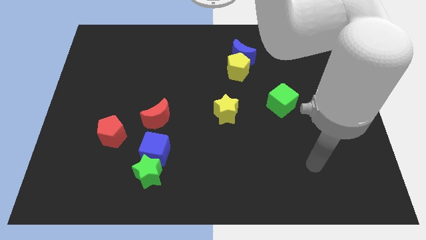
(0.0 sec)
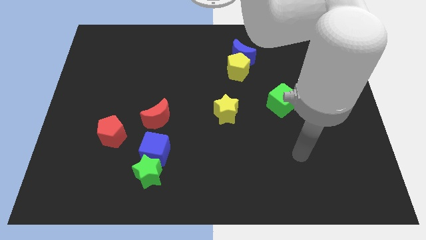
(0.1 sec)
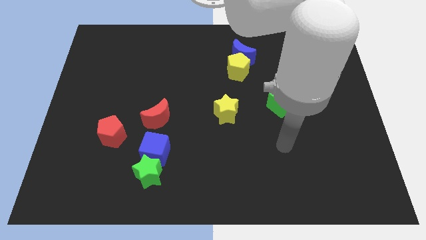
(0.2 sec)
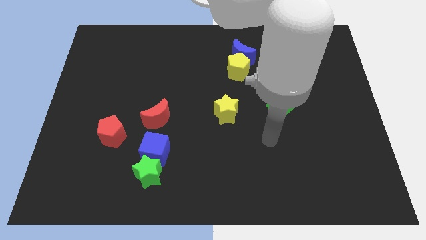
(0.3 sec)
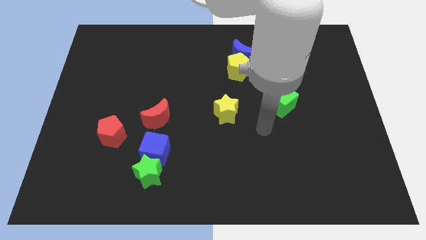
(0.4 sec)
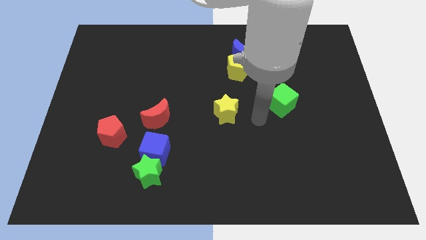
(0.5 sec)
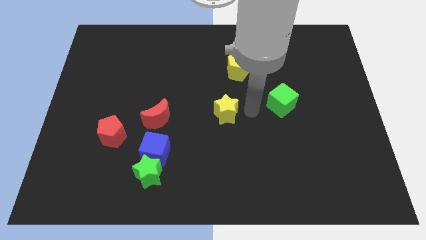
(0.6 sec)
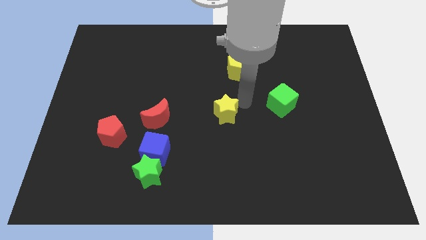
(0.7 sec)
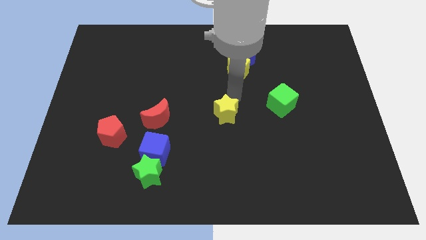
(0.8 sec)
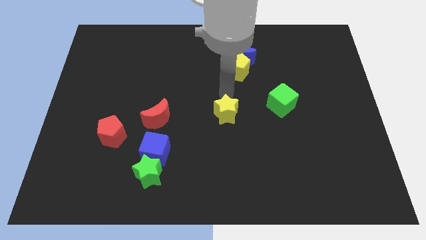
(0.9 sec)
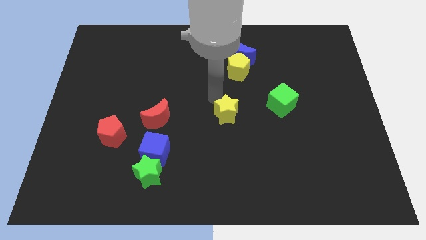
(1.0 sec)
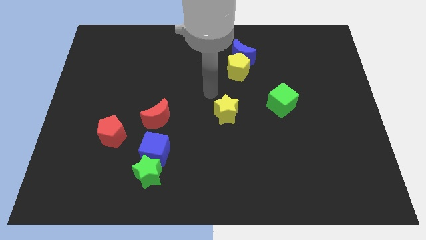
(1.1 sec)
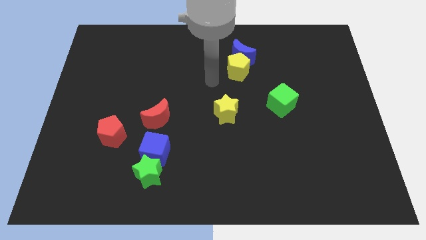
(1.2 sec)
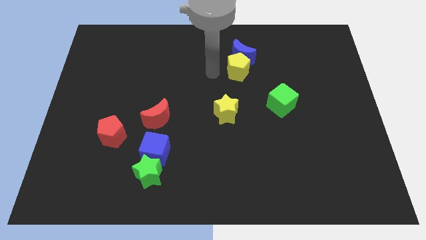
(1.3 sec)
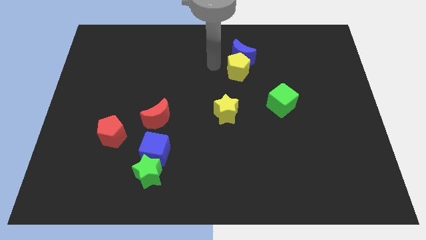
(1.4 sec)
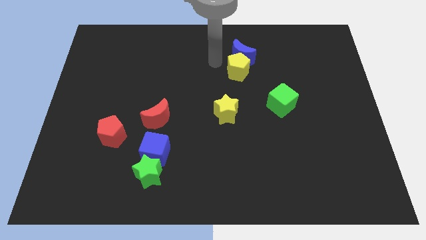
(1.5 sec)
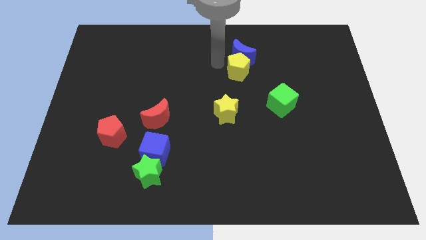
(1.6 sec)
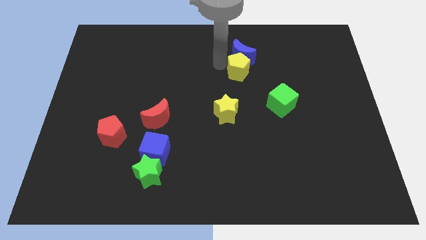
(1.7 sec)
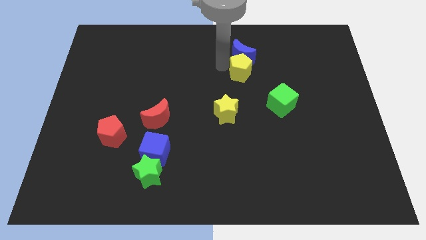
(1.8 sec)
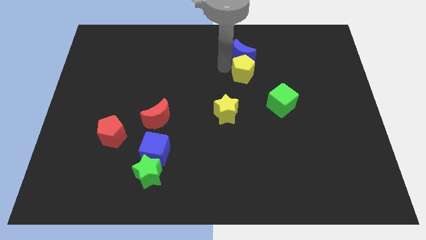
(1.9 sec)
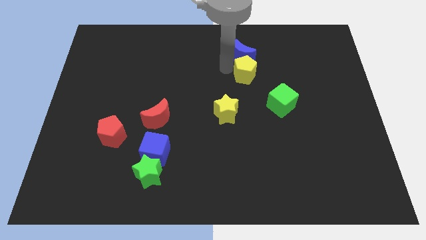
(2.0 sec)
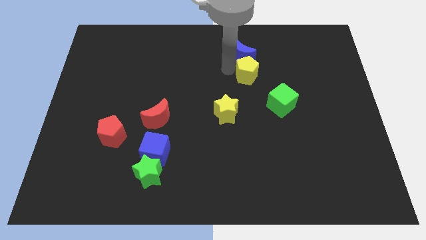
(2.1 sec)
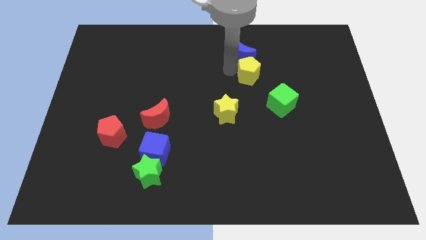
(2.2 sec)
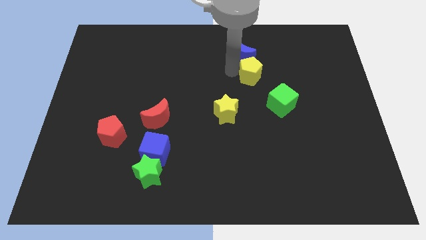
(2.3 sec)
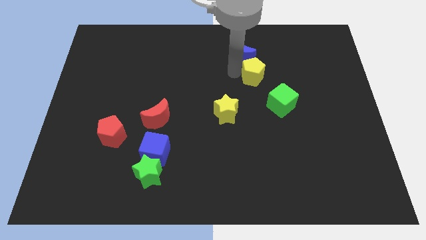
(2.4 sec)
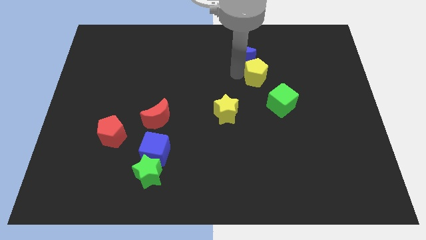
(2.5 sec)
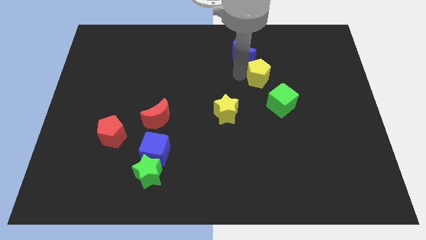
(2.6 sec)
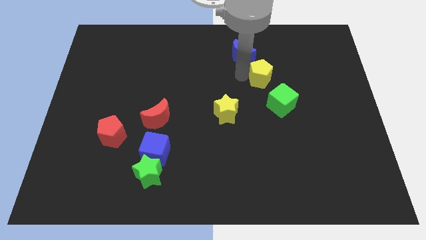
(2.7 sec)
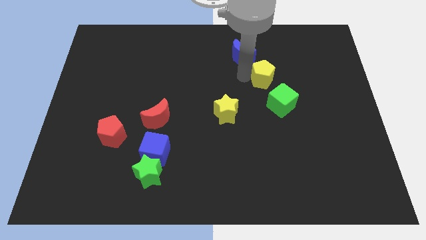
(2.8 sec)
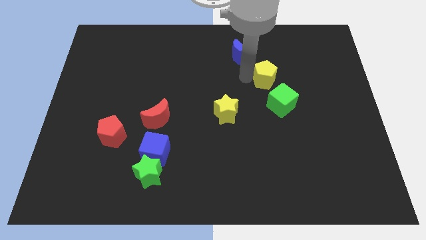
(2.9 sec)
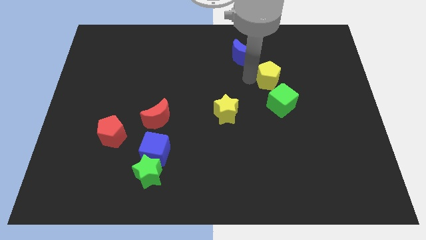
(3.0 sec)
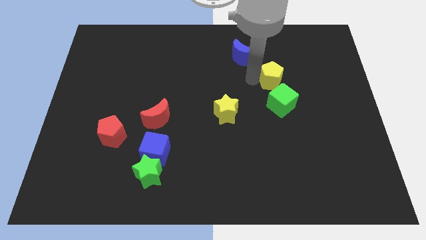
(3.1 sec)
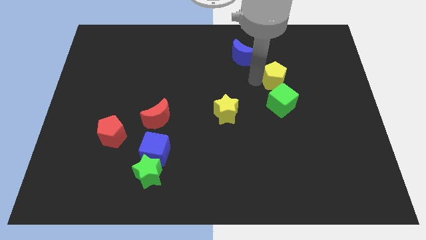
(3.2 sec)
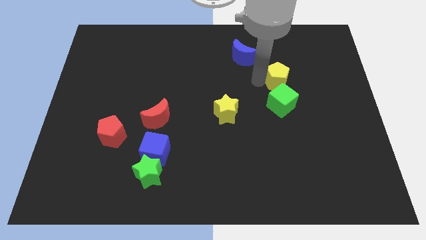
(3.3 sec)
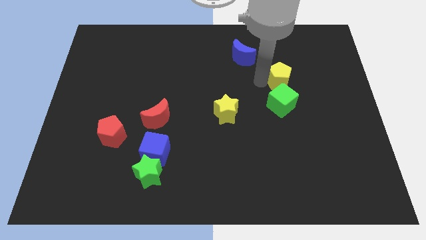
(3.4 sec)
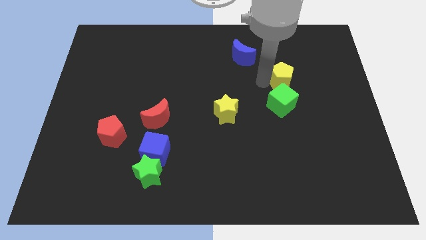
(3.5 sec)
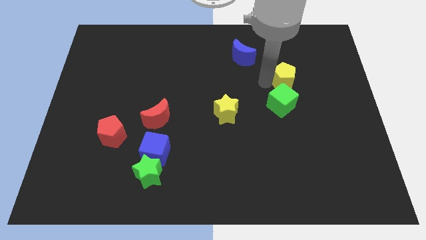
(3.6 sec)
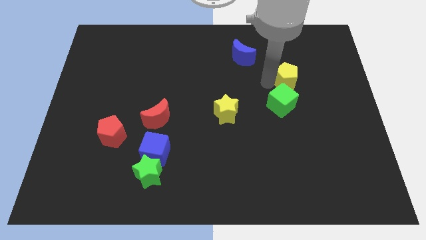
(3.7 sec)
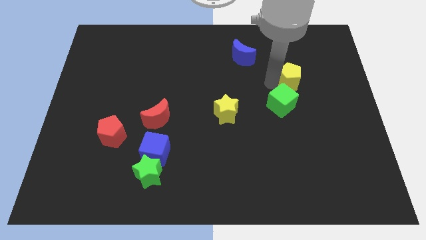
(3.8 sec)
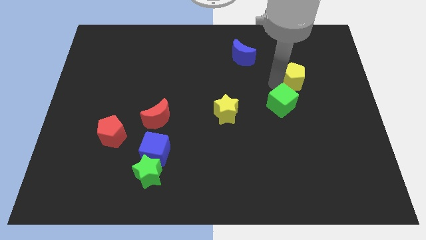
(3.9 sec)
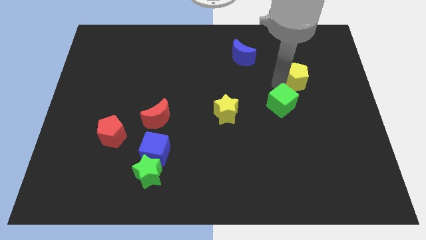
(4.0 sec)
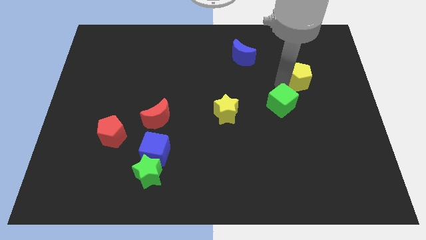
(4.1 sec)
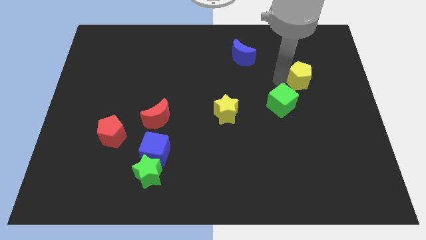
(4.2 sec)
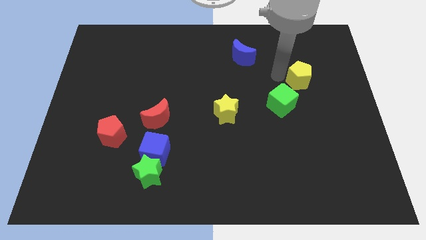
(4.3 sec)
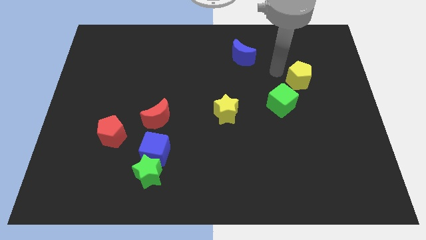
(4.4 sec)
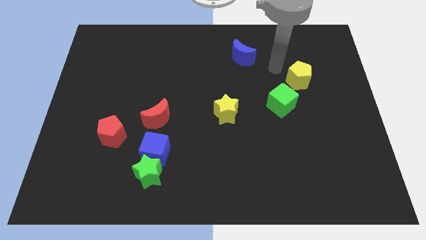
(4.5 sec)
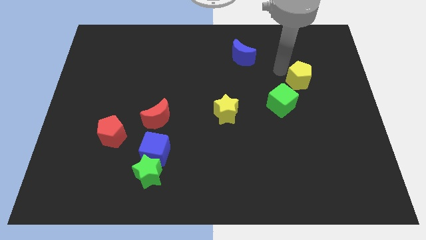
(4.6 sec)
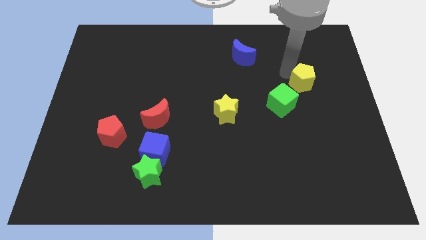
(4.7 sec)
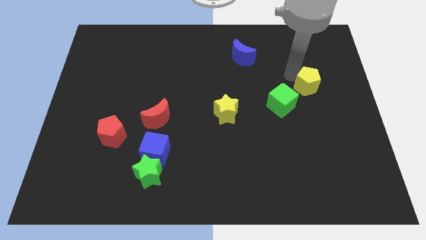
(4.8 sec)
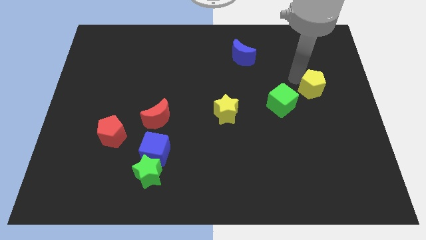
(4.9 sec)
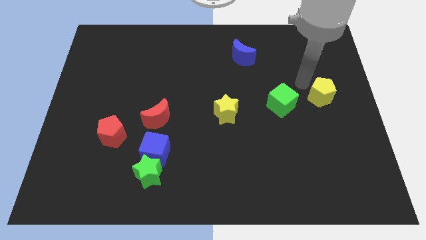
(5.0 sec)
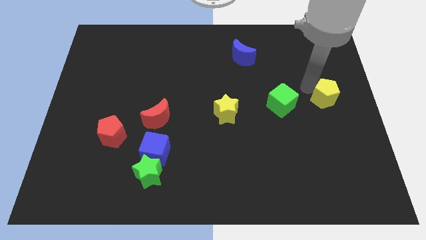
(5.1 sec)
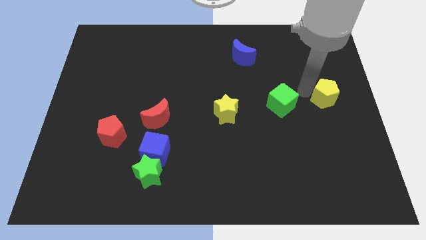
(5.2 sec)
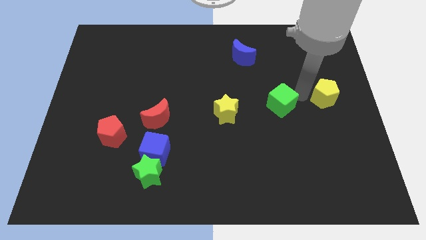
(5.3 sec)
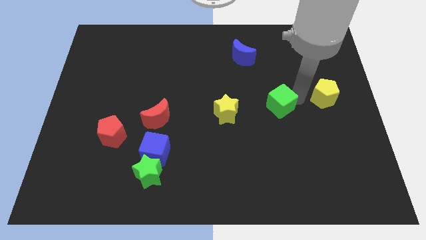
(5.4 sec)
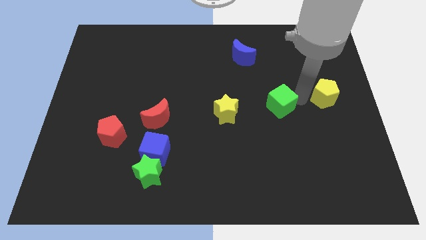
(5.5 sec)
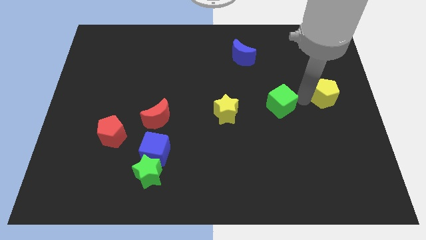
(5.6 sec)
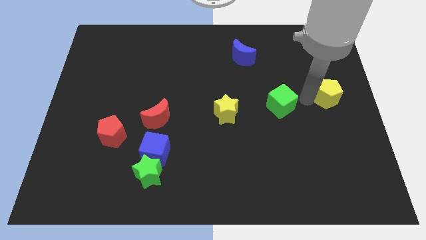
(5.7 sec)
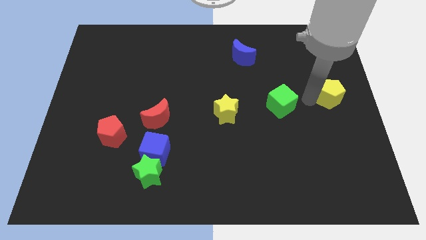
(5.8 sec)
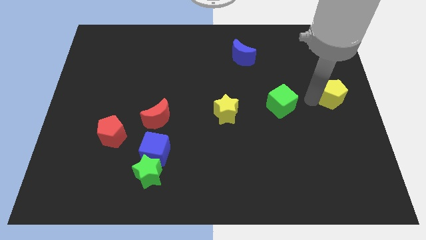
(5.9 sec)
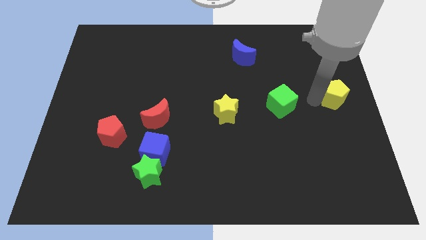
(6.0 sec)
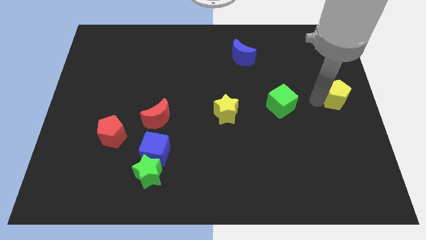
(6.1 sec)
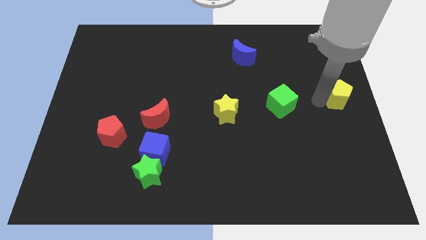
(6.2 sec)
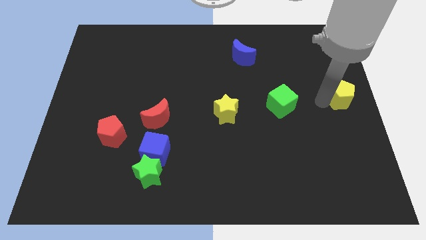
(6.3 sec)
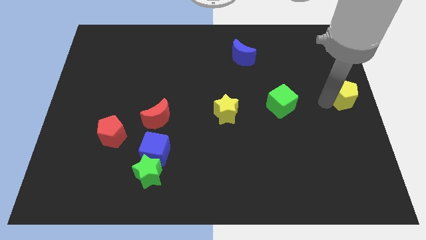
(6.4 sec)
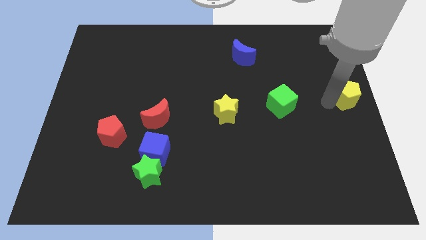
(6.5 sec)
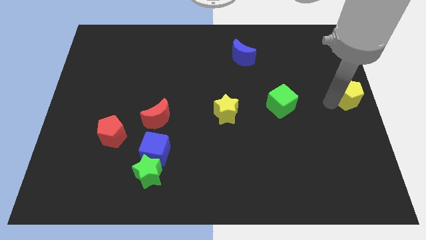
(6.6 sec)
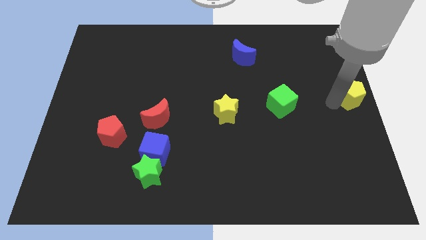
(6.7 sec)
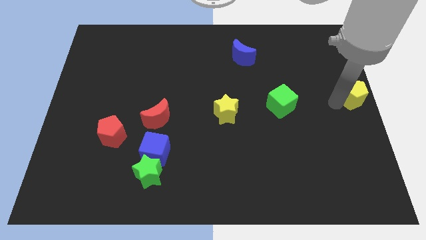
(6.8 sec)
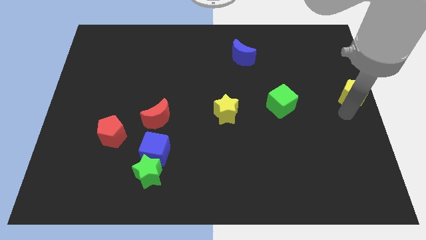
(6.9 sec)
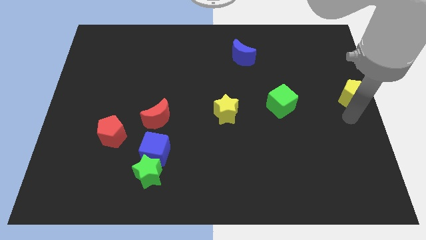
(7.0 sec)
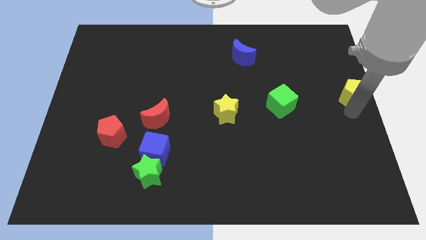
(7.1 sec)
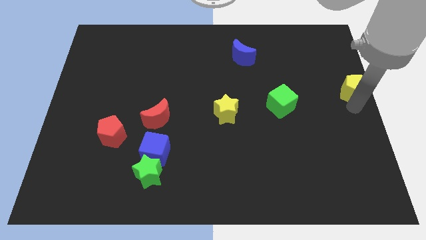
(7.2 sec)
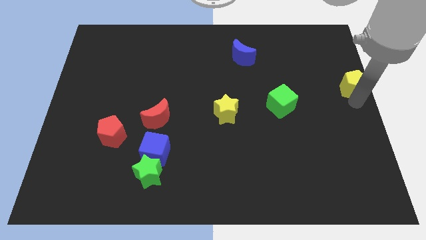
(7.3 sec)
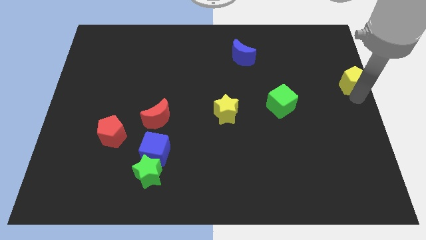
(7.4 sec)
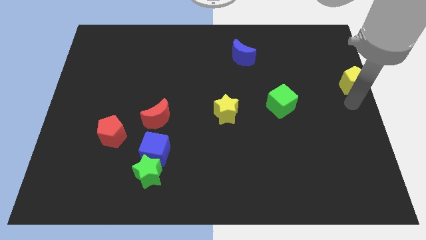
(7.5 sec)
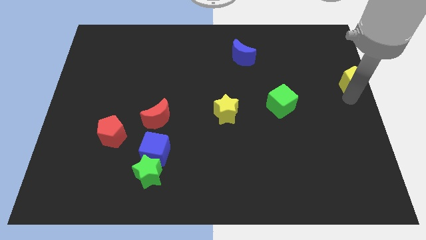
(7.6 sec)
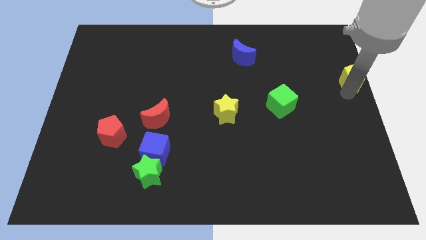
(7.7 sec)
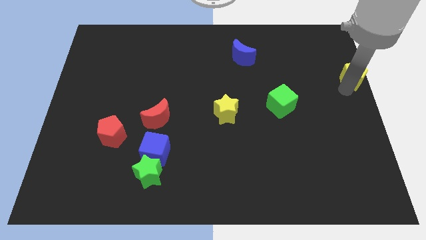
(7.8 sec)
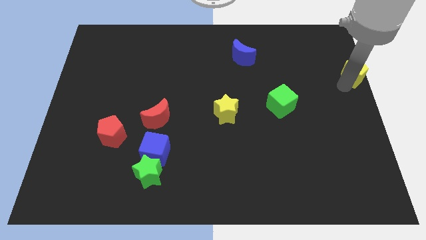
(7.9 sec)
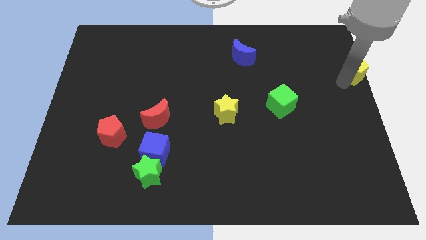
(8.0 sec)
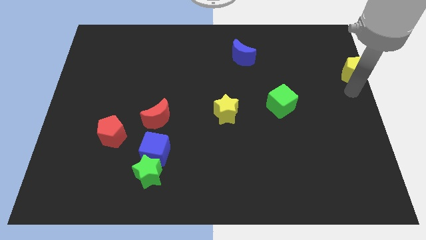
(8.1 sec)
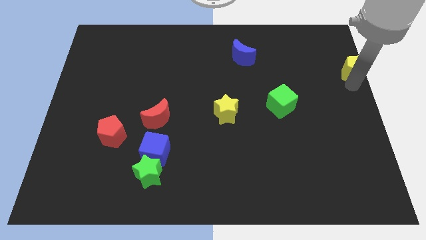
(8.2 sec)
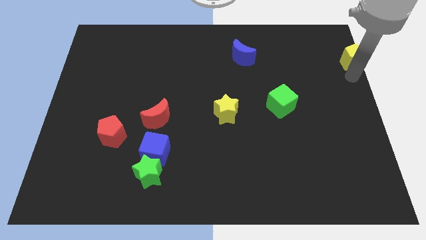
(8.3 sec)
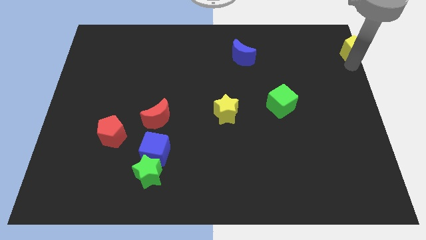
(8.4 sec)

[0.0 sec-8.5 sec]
put the yellow pentagon to the top right corner
